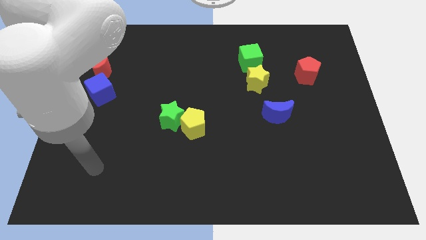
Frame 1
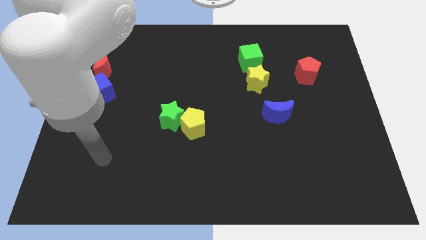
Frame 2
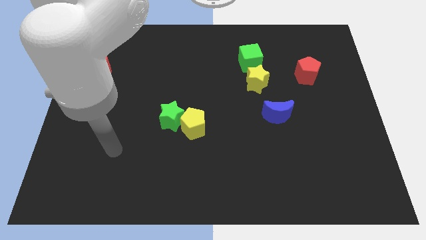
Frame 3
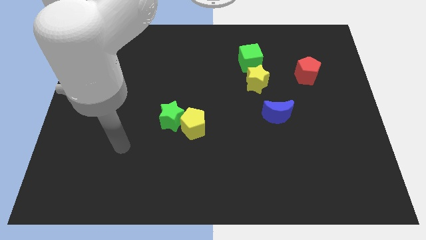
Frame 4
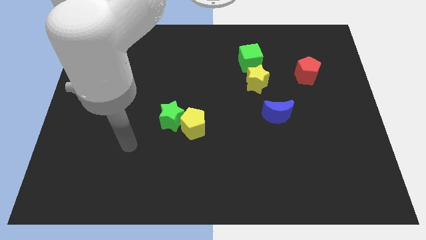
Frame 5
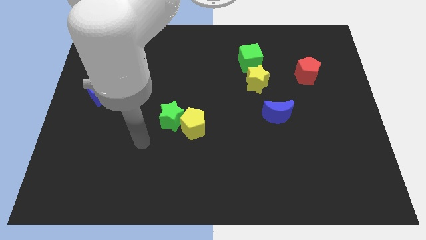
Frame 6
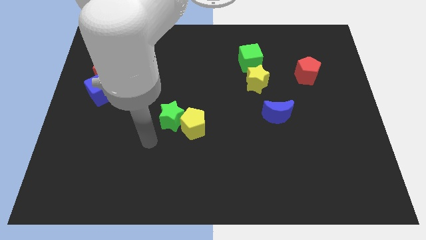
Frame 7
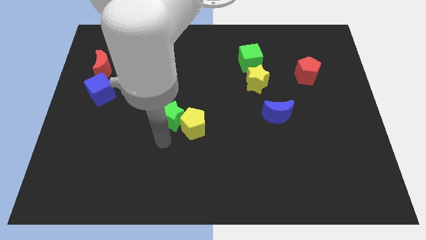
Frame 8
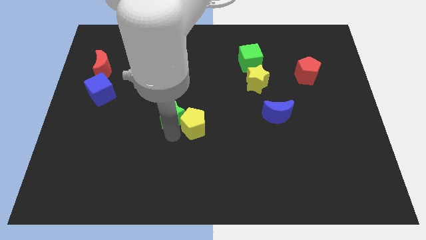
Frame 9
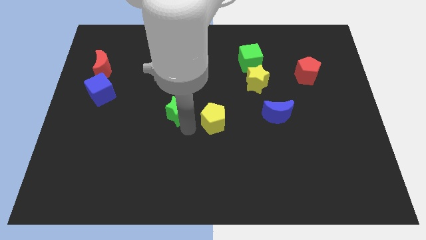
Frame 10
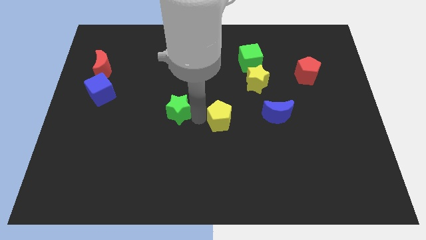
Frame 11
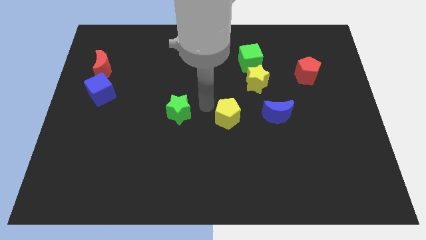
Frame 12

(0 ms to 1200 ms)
separate the green star from the yellow pentagon

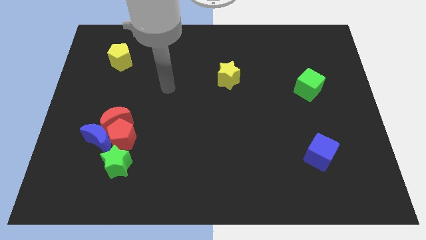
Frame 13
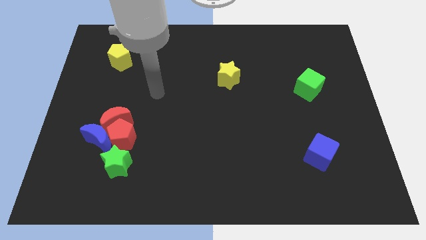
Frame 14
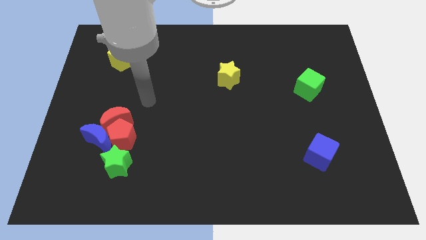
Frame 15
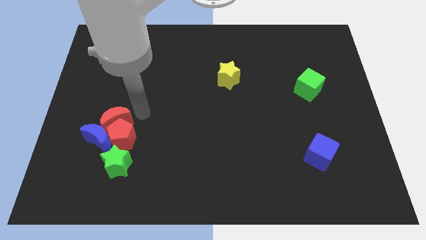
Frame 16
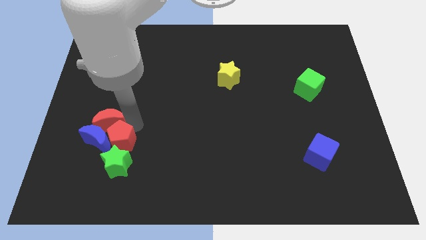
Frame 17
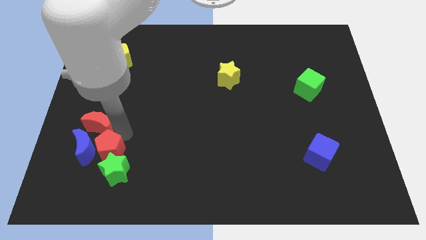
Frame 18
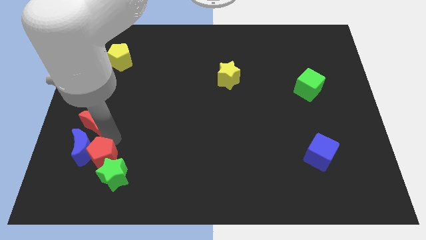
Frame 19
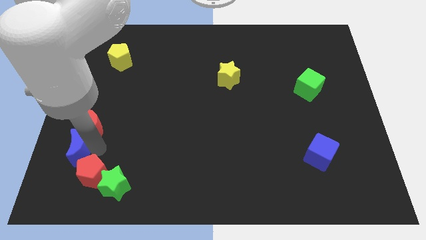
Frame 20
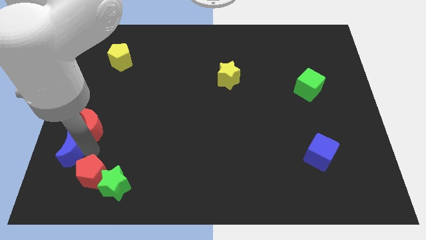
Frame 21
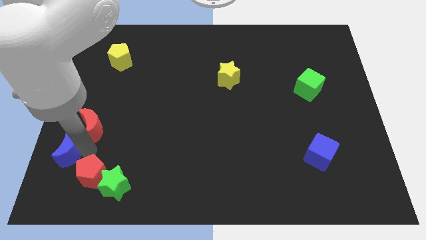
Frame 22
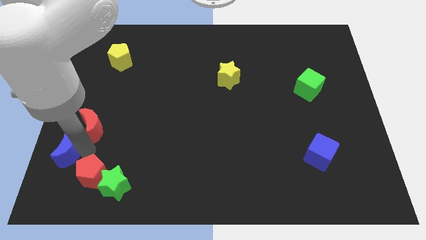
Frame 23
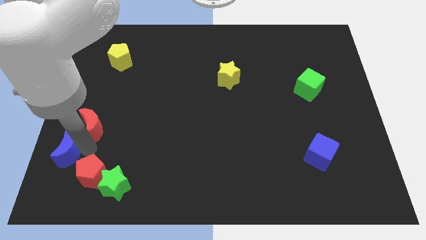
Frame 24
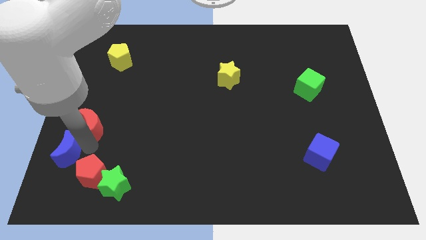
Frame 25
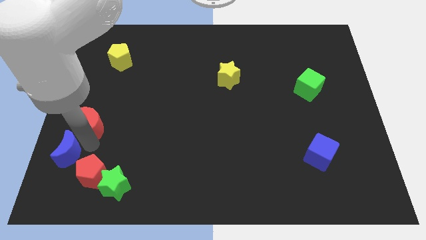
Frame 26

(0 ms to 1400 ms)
separate the red moon from the red pentagon and blue moon

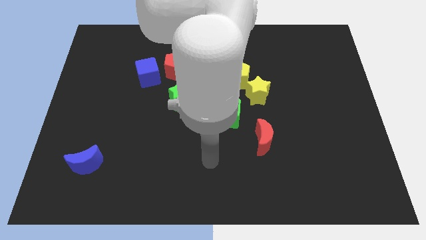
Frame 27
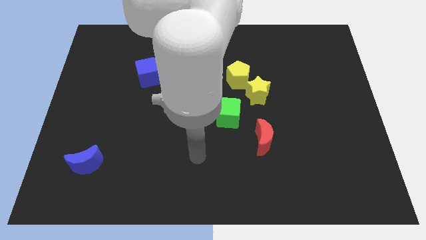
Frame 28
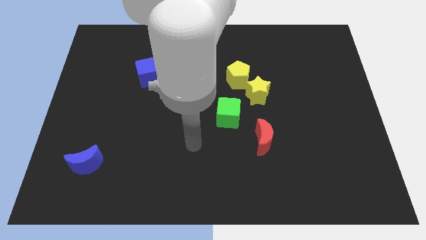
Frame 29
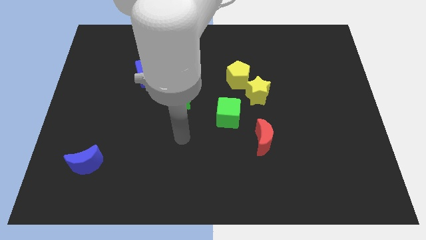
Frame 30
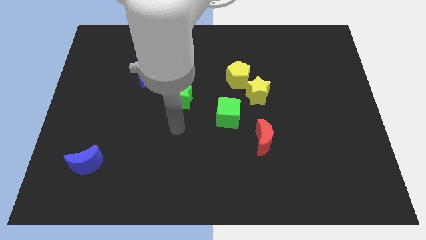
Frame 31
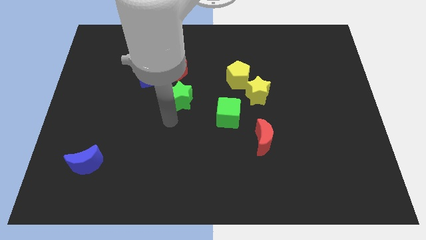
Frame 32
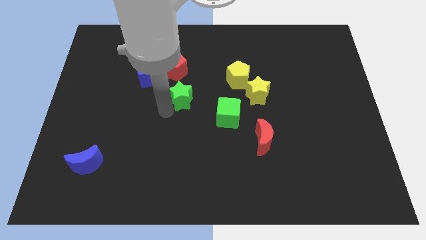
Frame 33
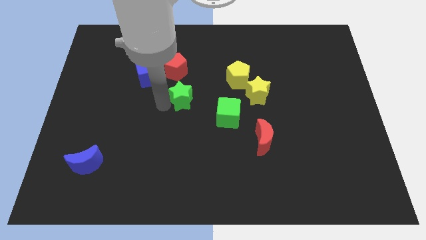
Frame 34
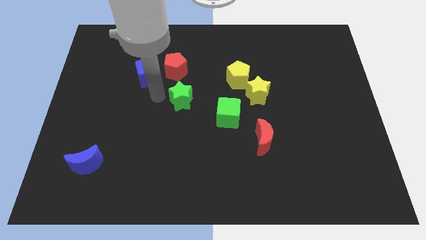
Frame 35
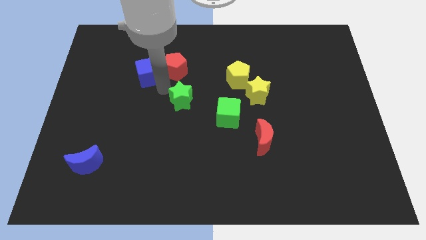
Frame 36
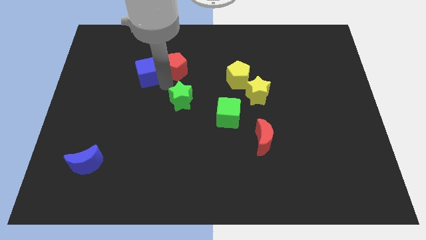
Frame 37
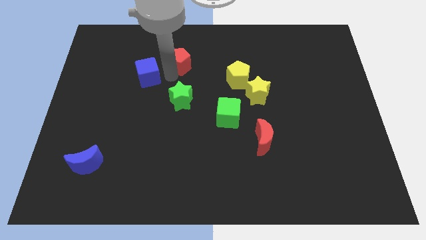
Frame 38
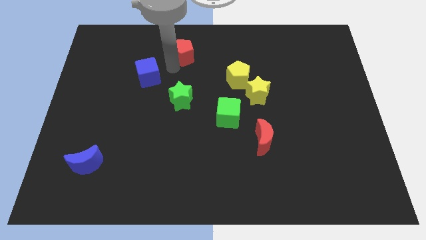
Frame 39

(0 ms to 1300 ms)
separate the blue cube from the red pentagon

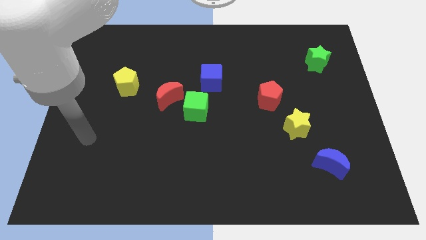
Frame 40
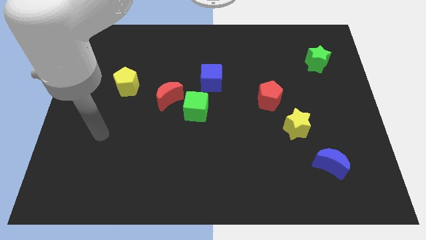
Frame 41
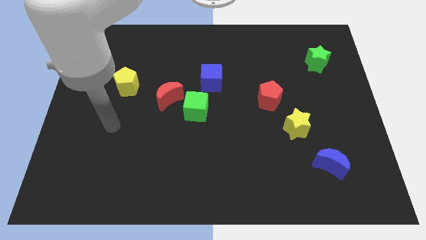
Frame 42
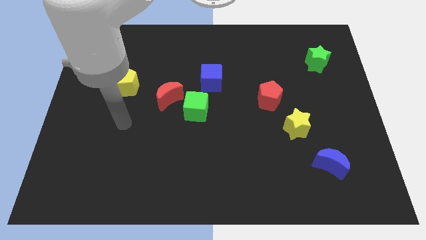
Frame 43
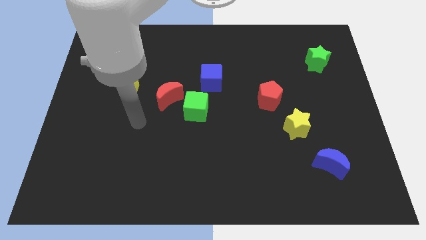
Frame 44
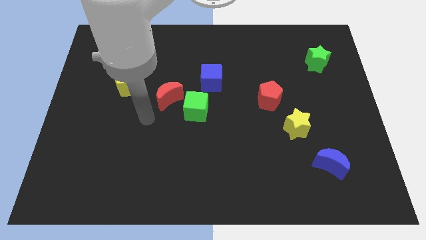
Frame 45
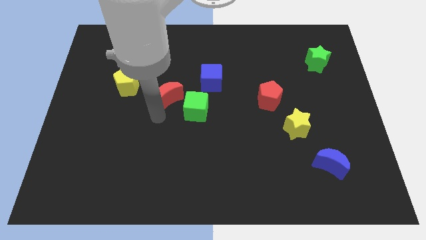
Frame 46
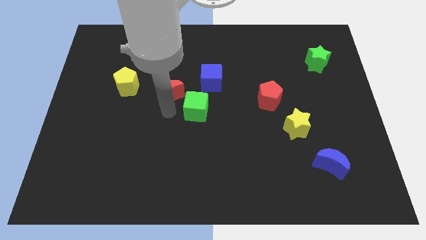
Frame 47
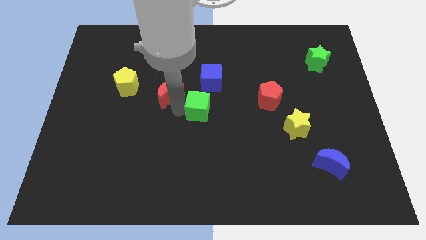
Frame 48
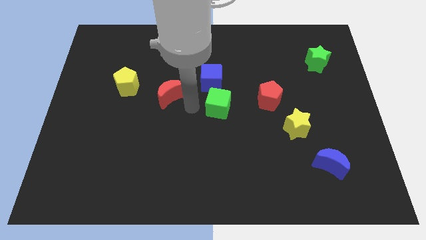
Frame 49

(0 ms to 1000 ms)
pull the red moon apart from the green cube

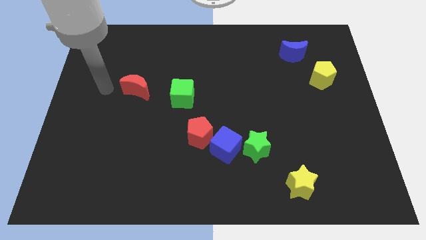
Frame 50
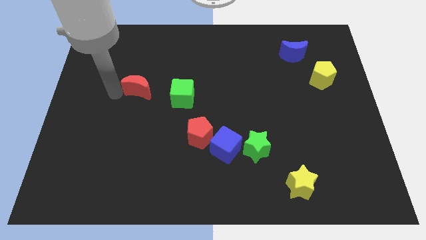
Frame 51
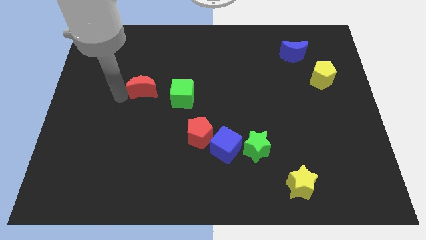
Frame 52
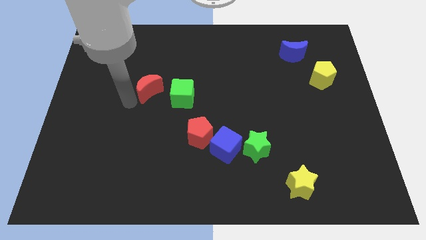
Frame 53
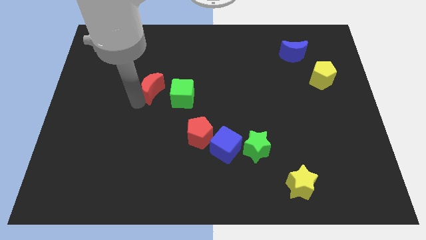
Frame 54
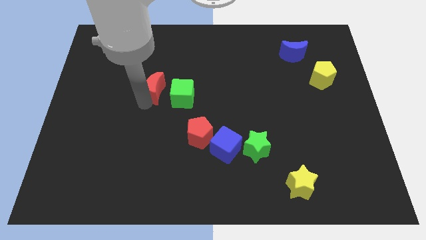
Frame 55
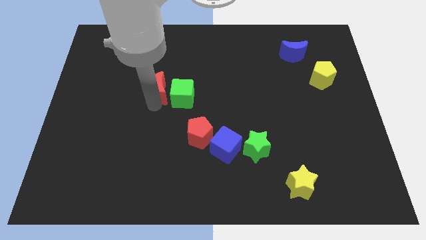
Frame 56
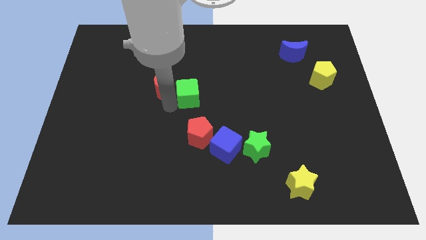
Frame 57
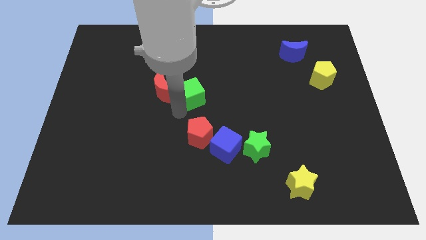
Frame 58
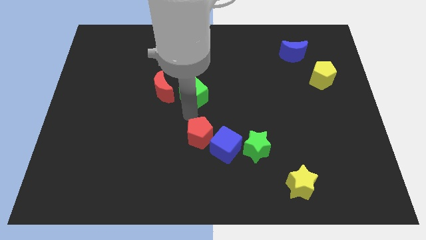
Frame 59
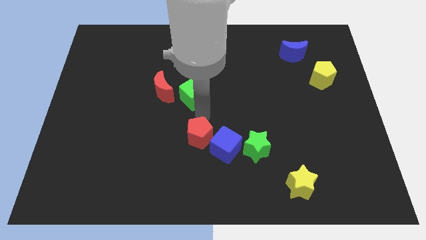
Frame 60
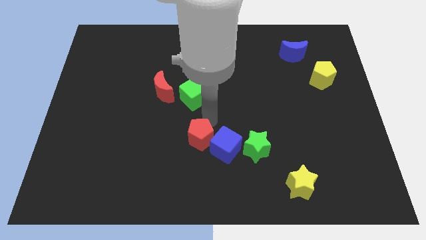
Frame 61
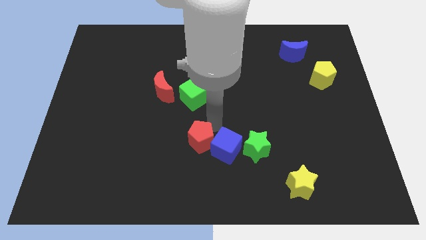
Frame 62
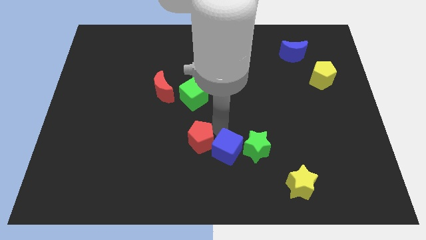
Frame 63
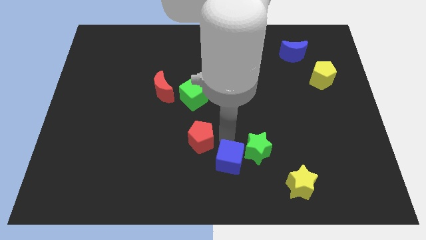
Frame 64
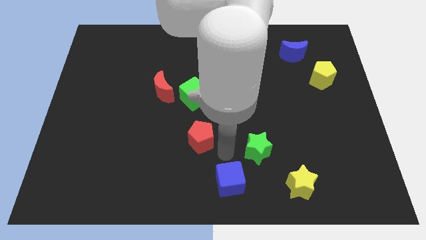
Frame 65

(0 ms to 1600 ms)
move the red pentagon away from the blue cube

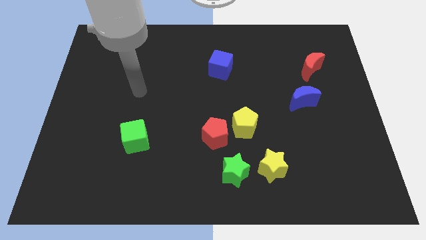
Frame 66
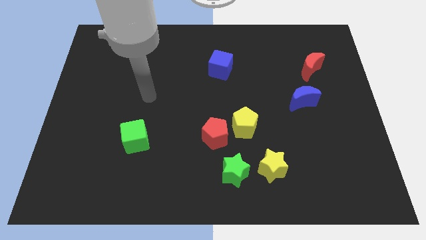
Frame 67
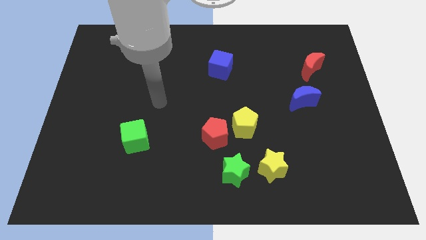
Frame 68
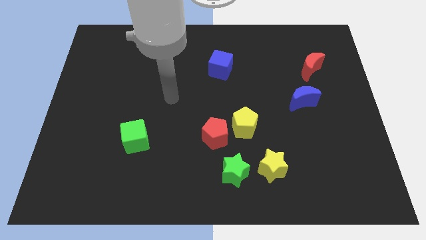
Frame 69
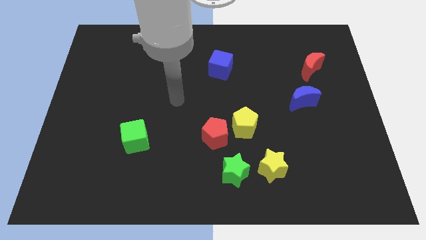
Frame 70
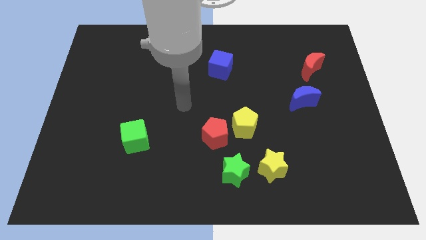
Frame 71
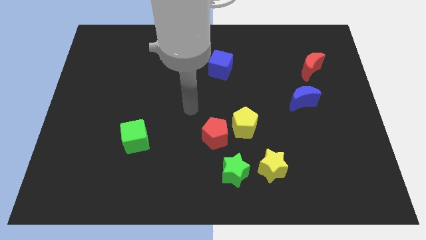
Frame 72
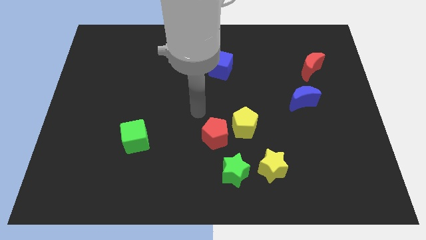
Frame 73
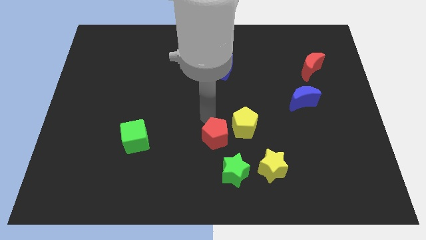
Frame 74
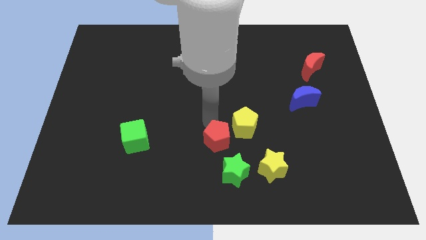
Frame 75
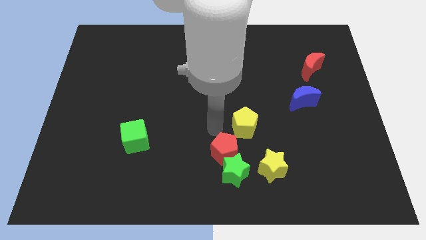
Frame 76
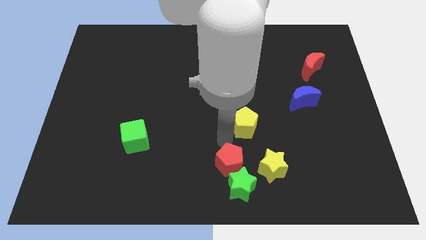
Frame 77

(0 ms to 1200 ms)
separate the yellow pentagon from the red pentagon

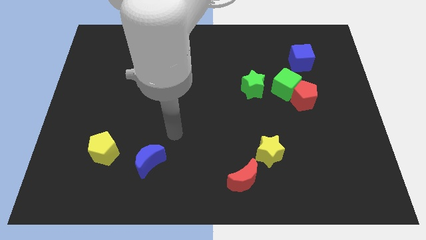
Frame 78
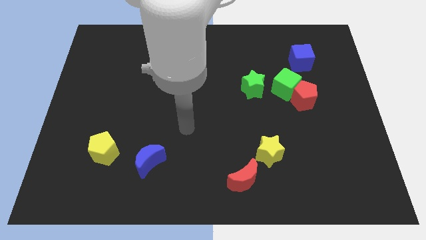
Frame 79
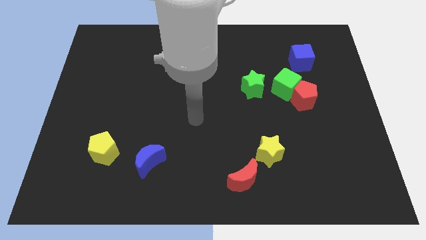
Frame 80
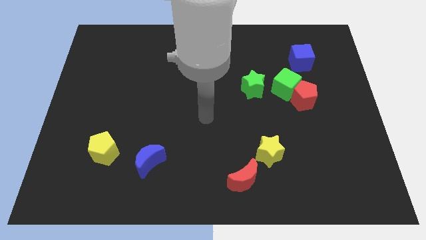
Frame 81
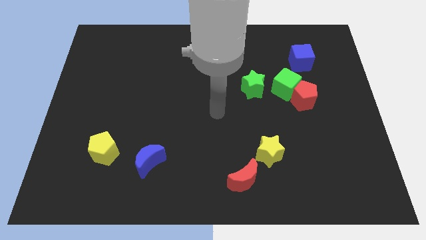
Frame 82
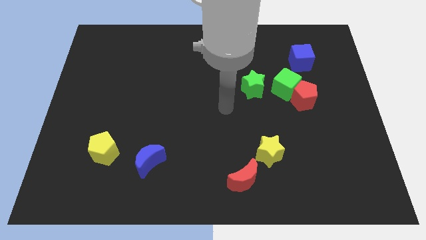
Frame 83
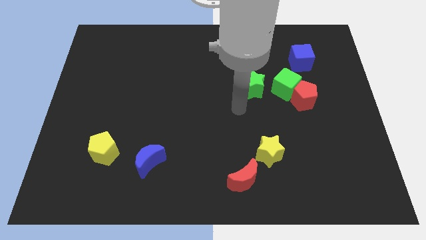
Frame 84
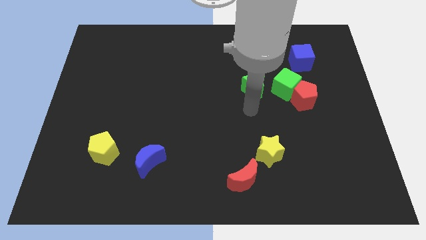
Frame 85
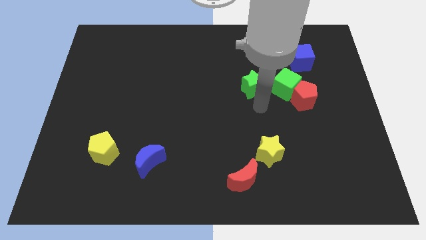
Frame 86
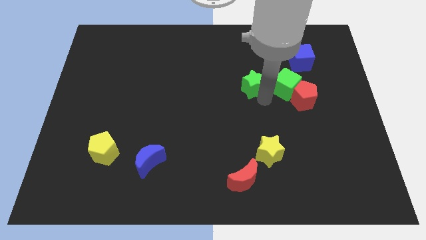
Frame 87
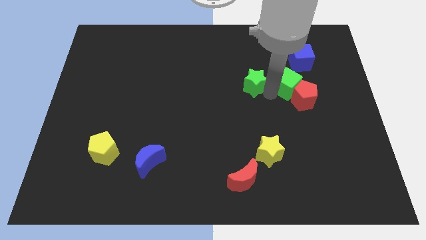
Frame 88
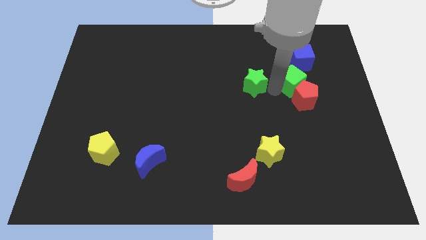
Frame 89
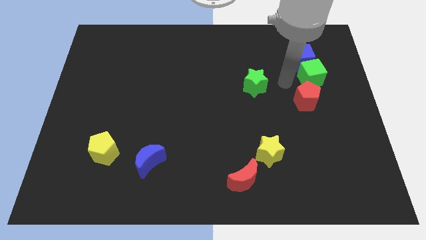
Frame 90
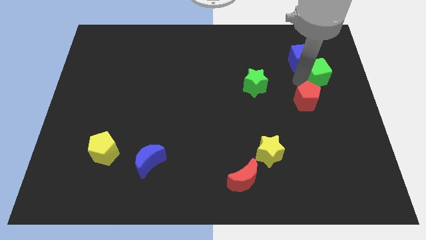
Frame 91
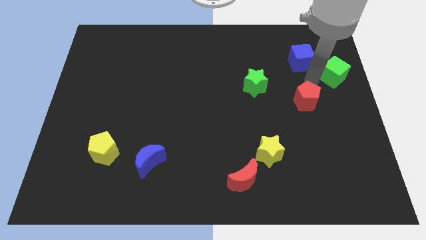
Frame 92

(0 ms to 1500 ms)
move the red pentagon away from the green cube
